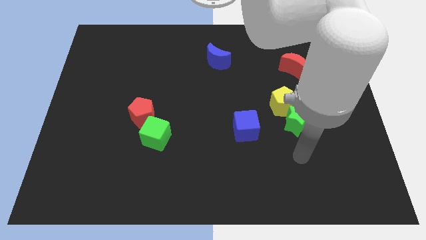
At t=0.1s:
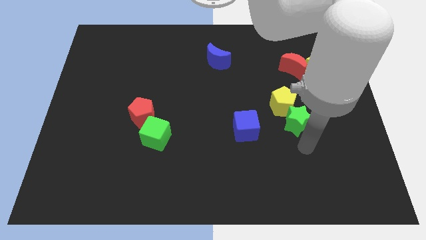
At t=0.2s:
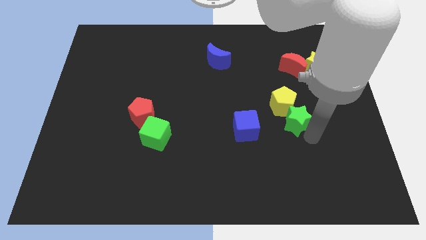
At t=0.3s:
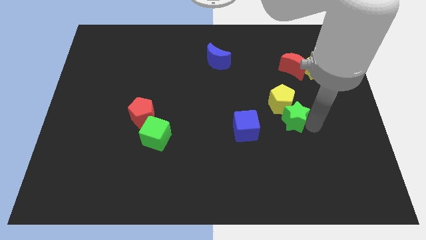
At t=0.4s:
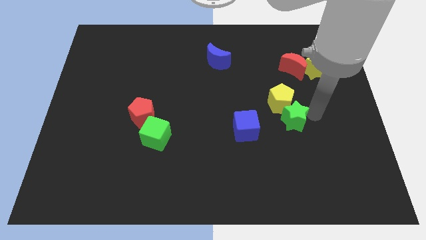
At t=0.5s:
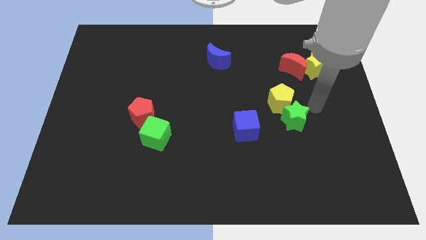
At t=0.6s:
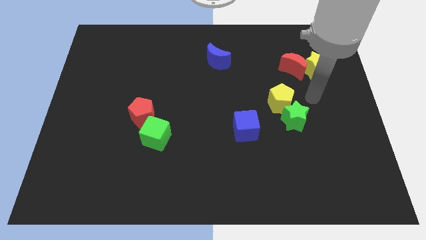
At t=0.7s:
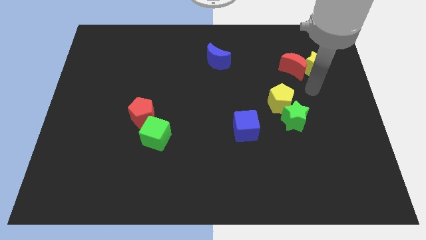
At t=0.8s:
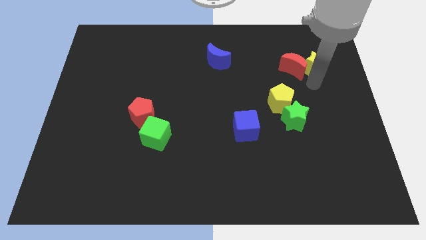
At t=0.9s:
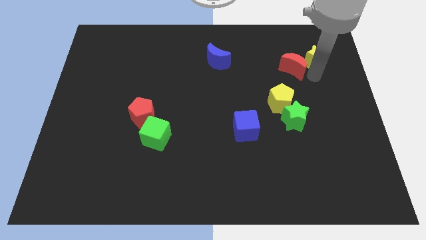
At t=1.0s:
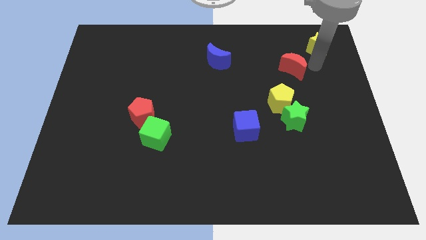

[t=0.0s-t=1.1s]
pull the red moon apart from the yellow star

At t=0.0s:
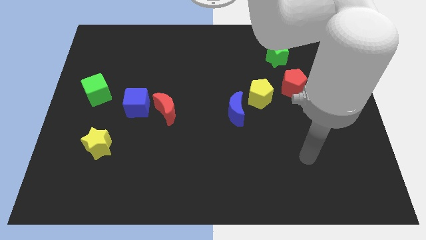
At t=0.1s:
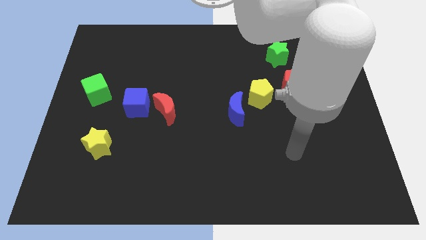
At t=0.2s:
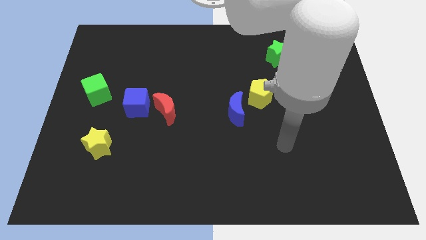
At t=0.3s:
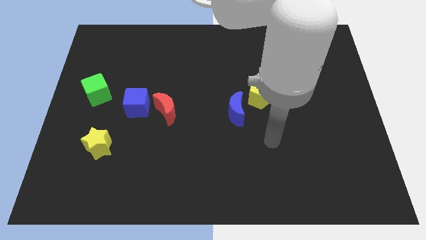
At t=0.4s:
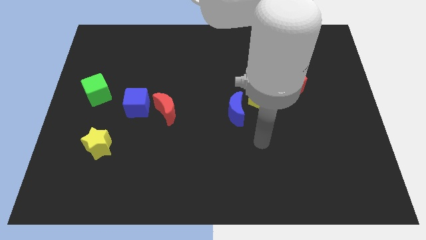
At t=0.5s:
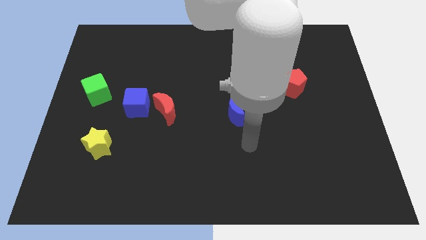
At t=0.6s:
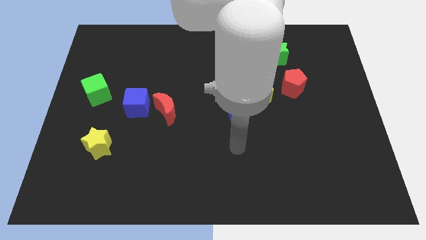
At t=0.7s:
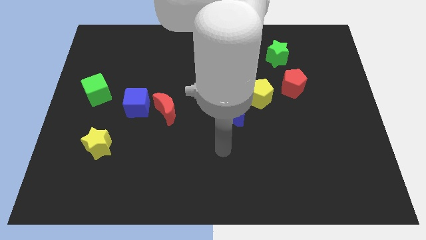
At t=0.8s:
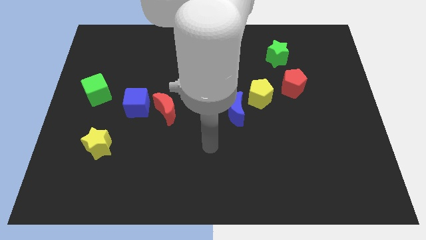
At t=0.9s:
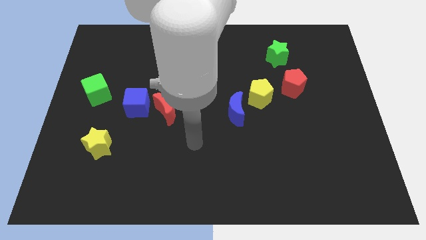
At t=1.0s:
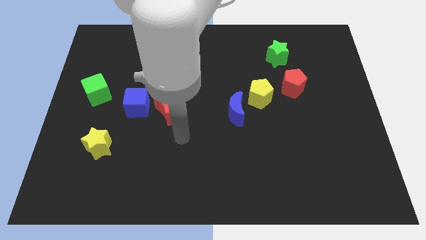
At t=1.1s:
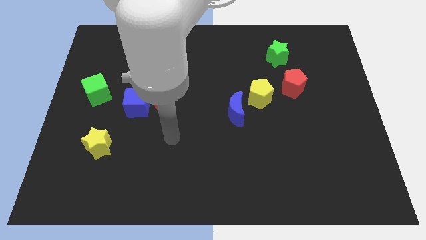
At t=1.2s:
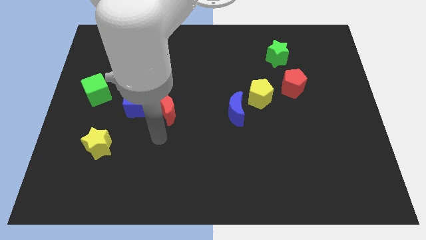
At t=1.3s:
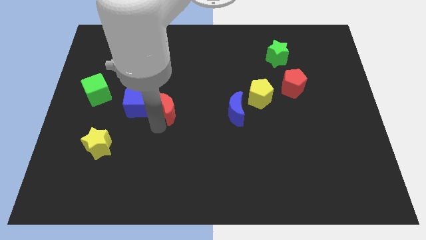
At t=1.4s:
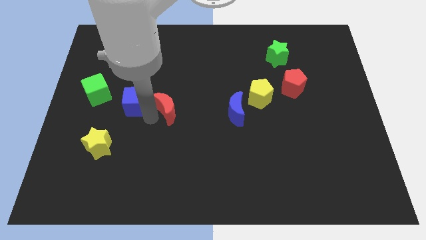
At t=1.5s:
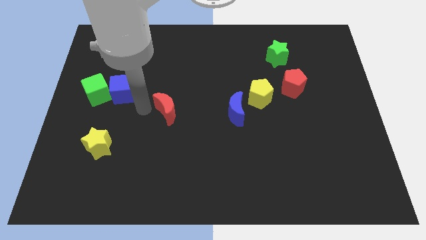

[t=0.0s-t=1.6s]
pull the red moon apart from the blue cube

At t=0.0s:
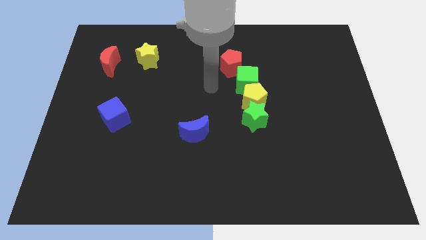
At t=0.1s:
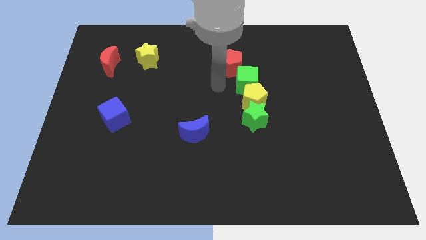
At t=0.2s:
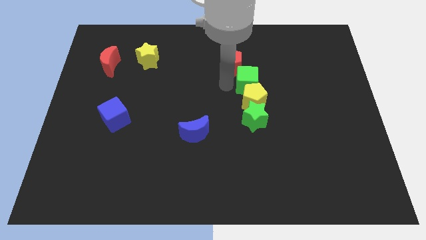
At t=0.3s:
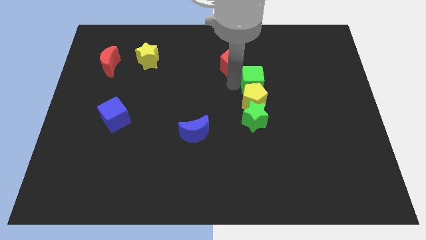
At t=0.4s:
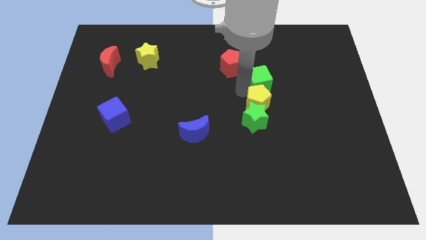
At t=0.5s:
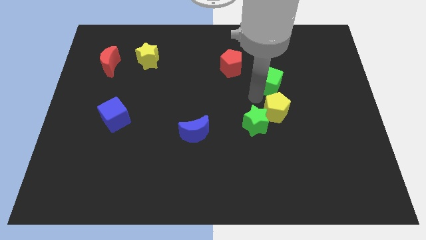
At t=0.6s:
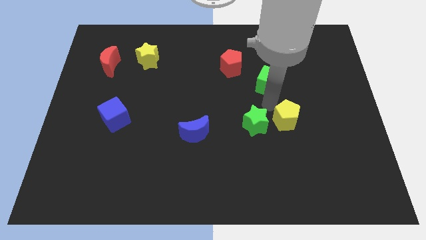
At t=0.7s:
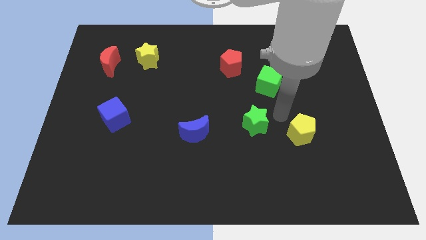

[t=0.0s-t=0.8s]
pull the green star apart from the yellow pentagon

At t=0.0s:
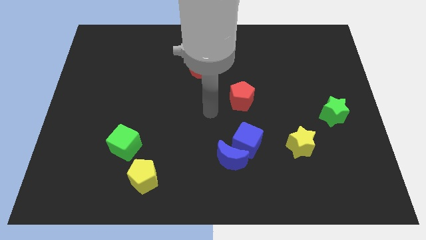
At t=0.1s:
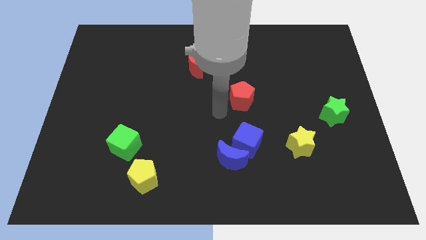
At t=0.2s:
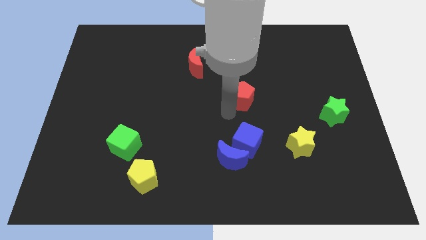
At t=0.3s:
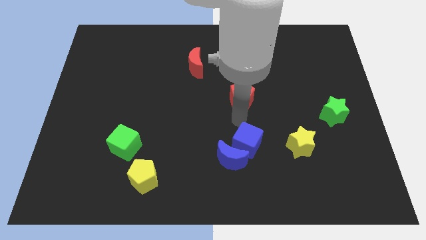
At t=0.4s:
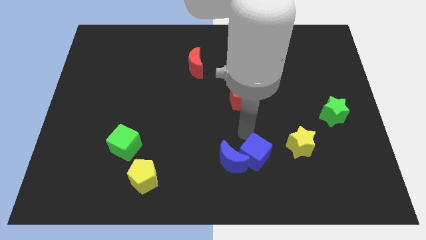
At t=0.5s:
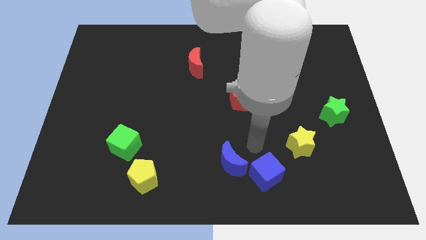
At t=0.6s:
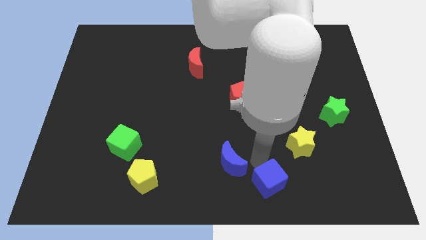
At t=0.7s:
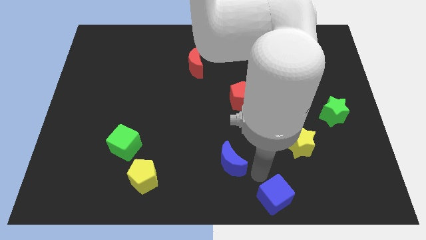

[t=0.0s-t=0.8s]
move the blue moon away from the blue cube

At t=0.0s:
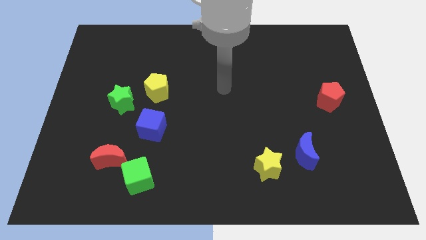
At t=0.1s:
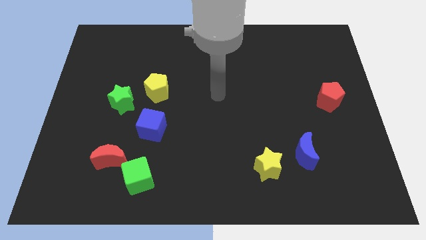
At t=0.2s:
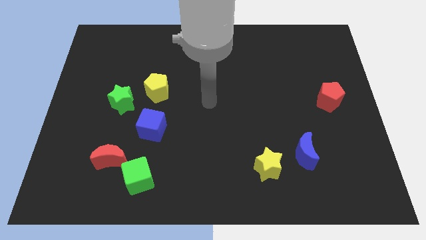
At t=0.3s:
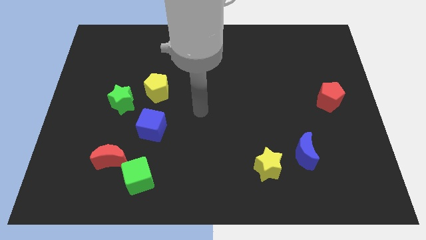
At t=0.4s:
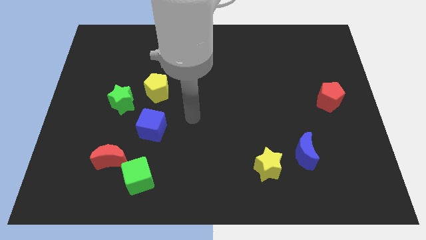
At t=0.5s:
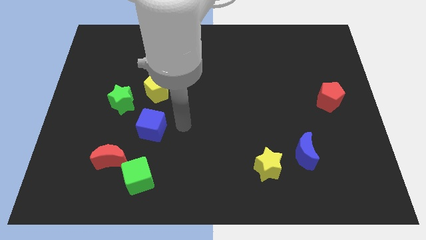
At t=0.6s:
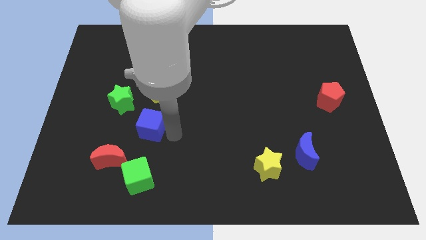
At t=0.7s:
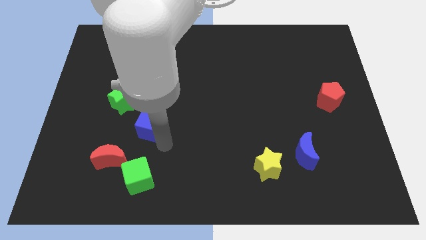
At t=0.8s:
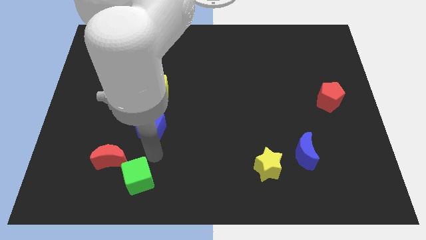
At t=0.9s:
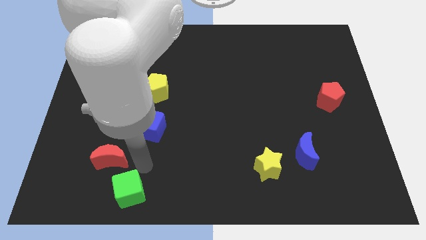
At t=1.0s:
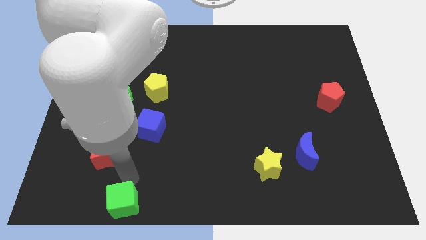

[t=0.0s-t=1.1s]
pull the red moon apart from the green cube

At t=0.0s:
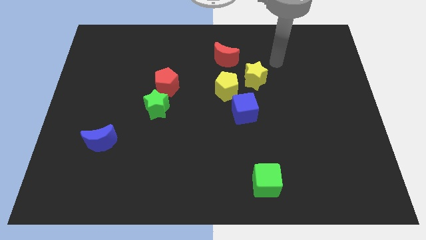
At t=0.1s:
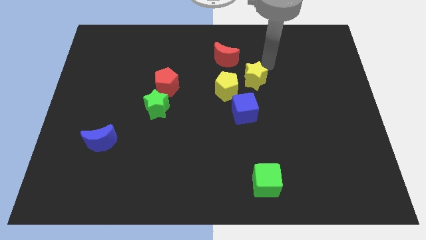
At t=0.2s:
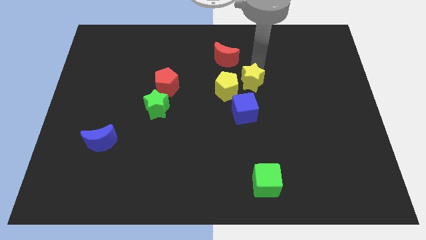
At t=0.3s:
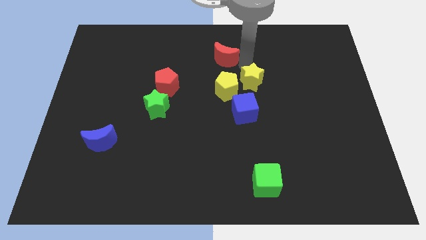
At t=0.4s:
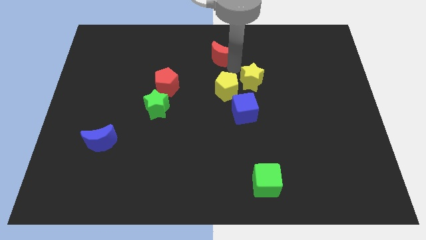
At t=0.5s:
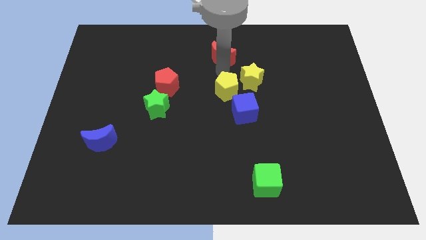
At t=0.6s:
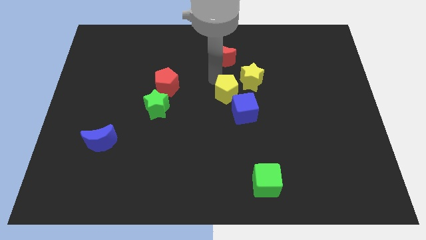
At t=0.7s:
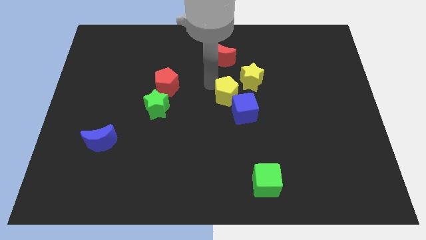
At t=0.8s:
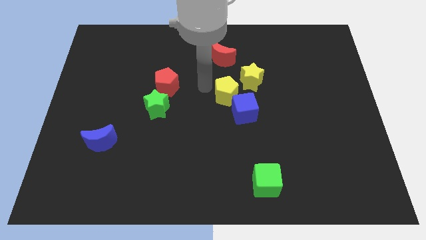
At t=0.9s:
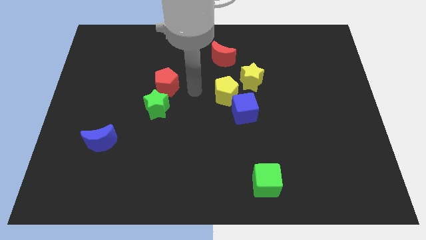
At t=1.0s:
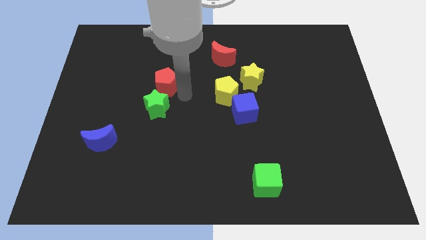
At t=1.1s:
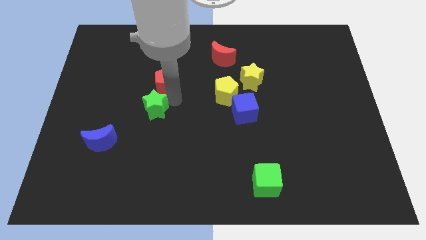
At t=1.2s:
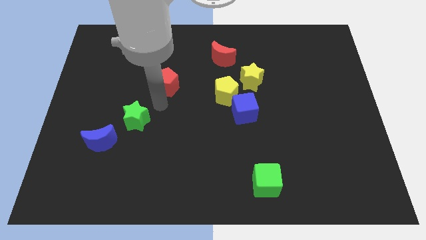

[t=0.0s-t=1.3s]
move the red pentagon away from the green star

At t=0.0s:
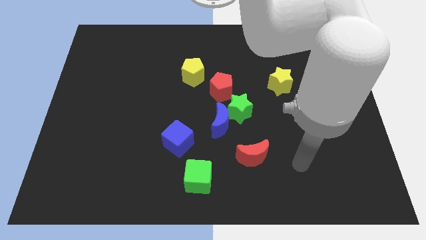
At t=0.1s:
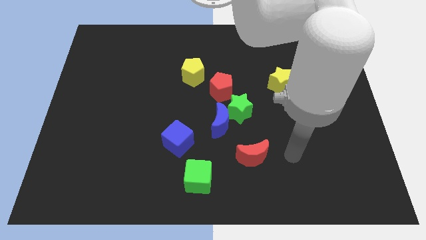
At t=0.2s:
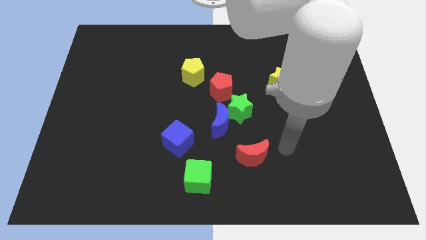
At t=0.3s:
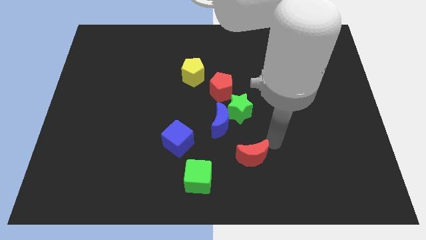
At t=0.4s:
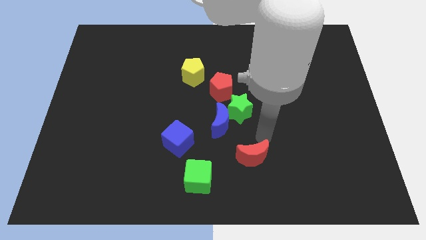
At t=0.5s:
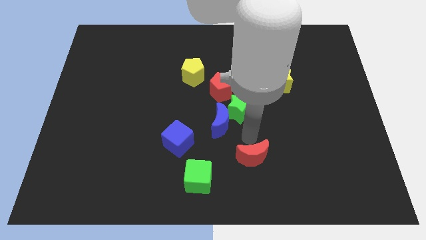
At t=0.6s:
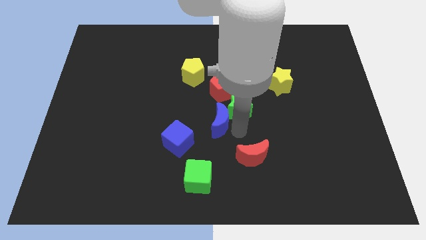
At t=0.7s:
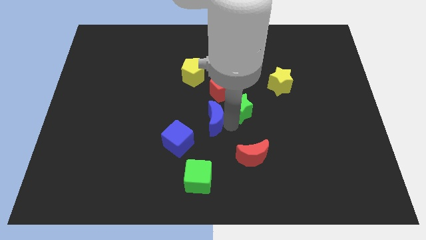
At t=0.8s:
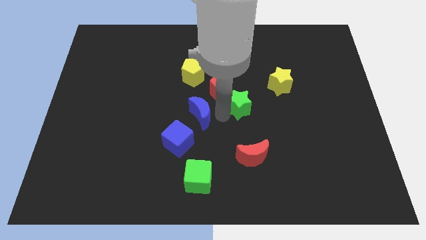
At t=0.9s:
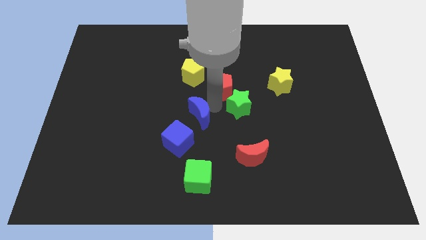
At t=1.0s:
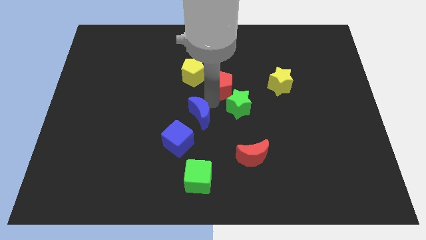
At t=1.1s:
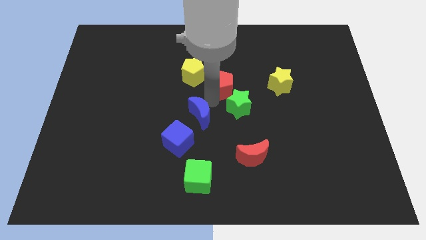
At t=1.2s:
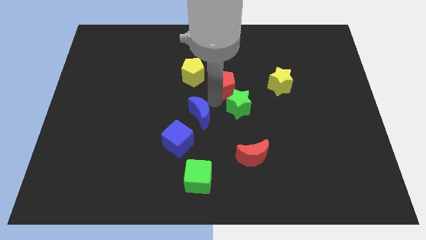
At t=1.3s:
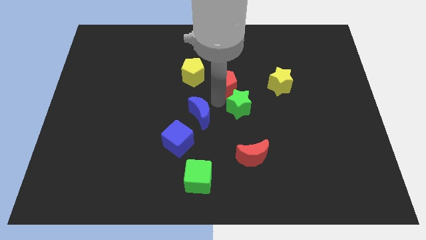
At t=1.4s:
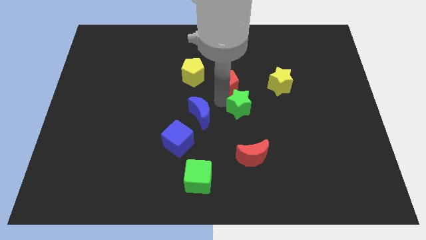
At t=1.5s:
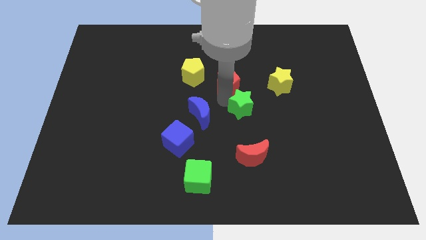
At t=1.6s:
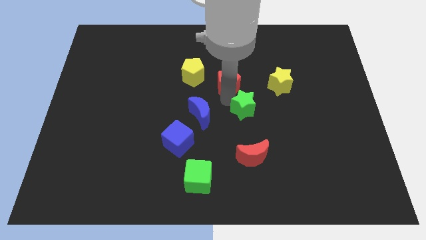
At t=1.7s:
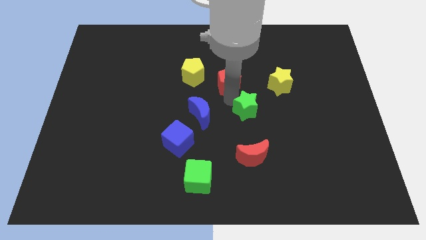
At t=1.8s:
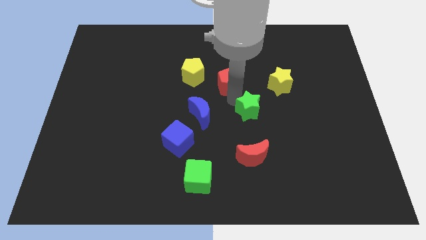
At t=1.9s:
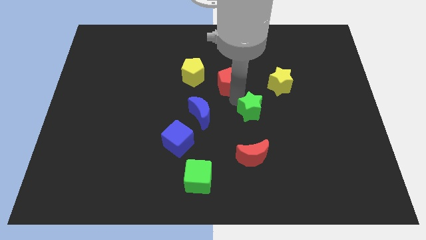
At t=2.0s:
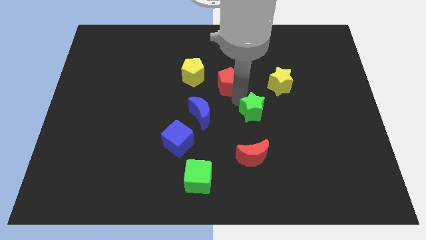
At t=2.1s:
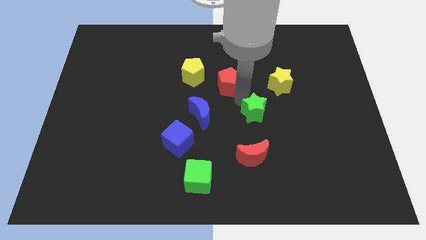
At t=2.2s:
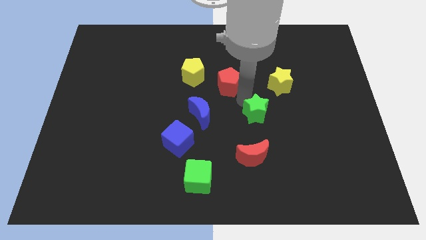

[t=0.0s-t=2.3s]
move the green star away from the blue moon and red pentagon
